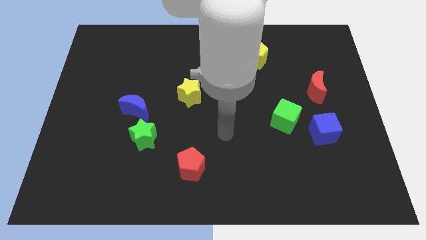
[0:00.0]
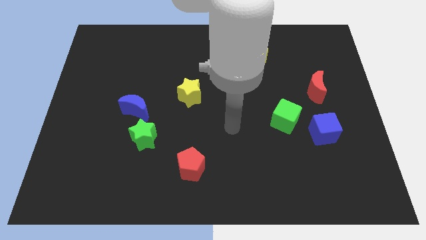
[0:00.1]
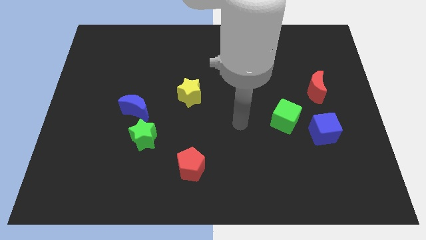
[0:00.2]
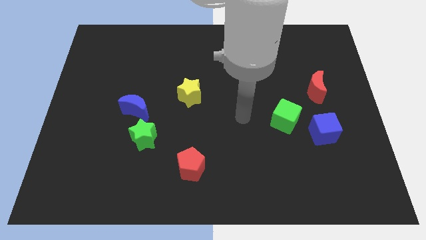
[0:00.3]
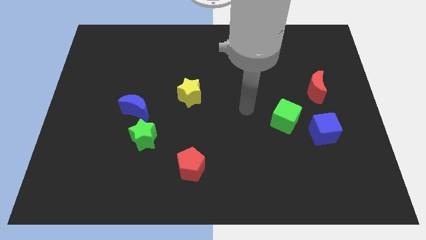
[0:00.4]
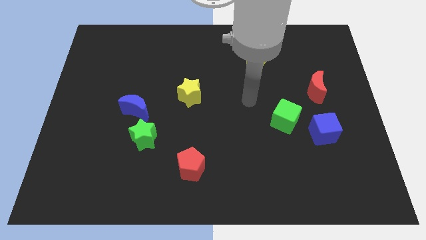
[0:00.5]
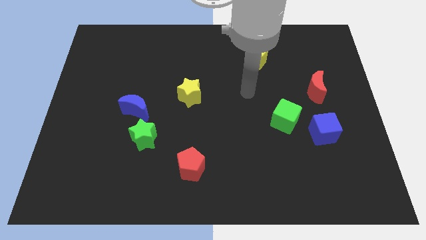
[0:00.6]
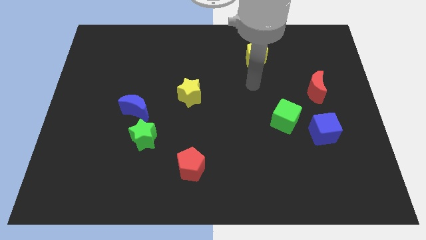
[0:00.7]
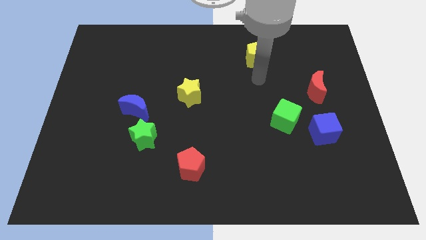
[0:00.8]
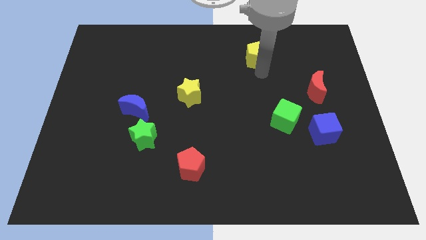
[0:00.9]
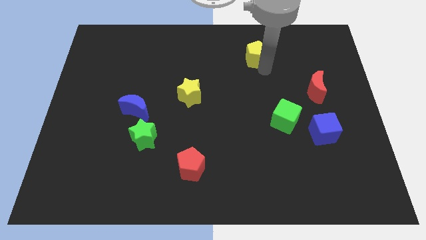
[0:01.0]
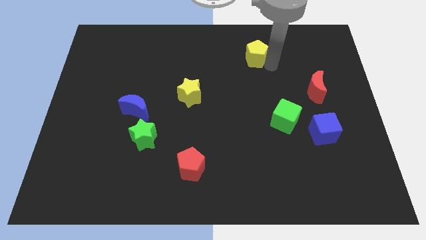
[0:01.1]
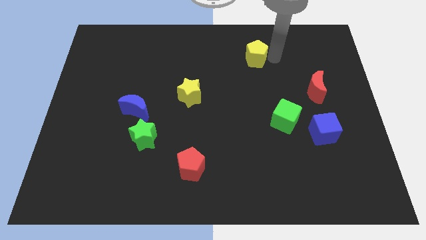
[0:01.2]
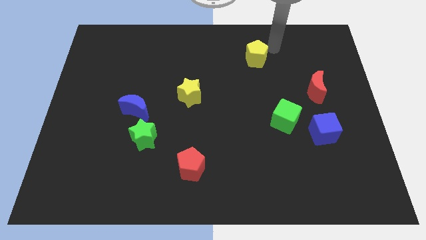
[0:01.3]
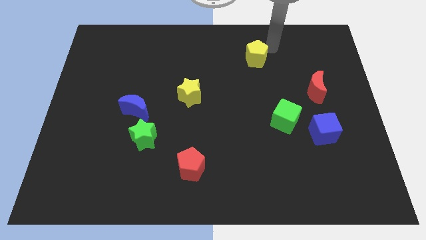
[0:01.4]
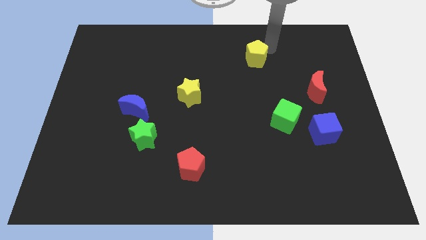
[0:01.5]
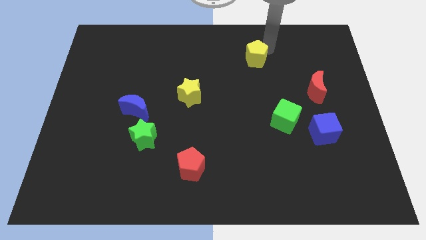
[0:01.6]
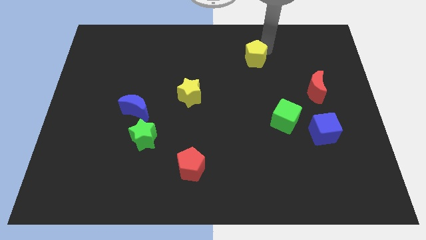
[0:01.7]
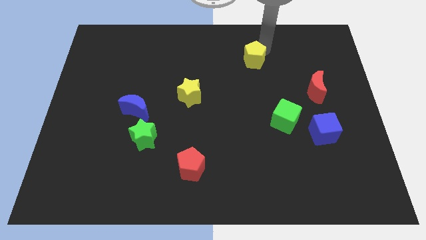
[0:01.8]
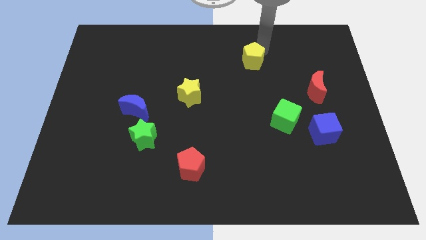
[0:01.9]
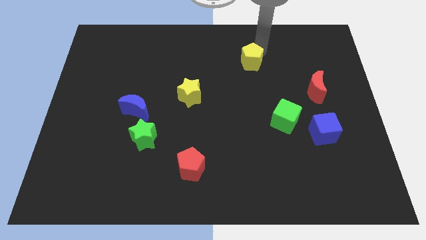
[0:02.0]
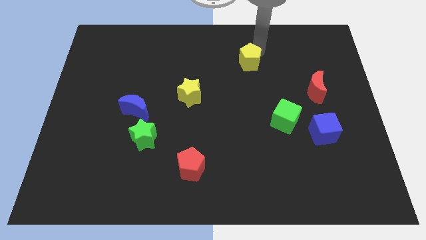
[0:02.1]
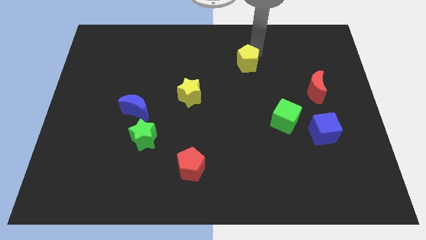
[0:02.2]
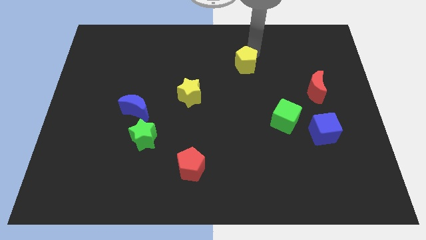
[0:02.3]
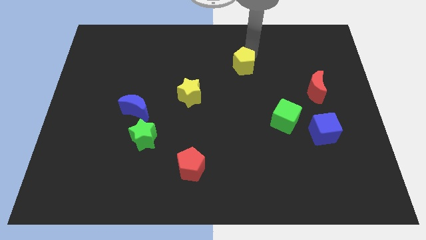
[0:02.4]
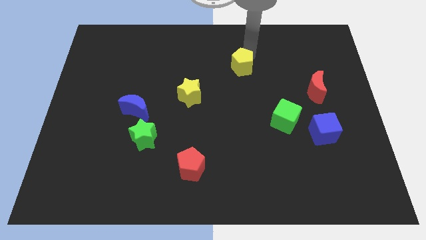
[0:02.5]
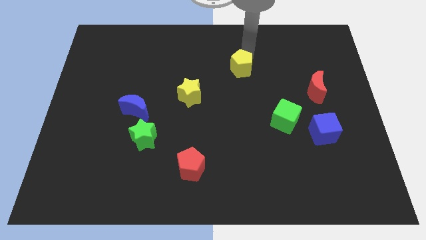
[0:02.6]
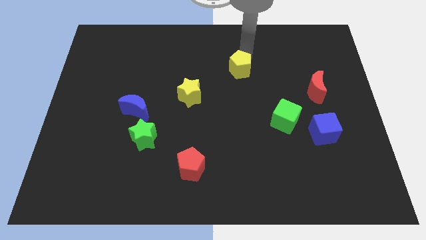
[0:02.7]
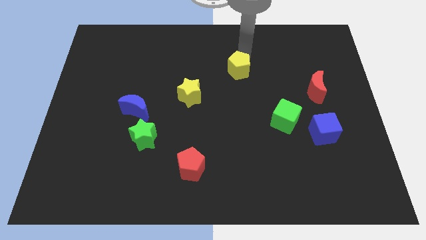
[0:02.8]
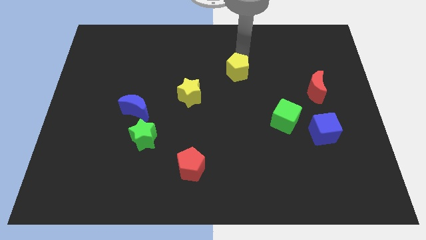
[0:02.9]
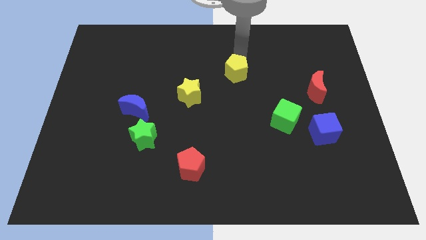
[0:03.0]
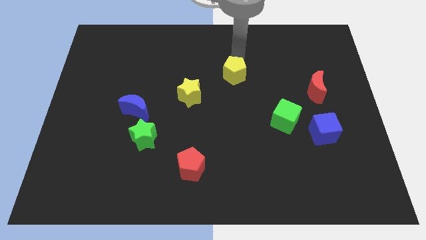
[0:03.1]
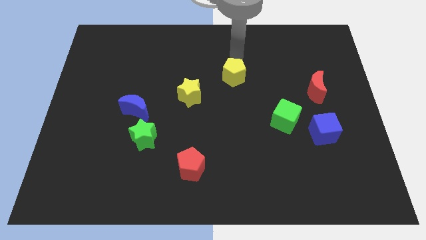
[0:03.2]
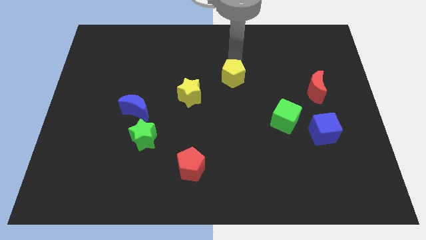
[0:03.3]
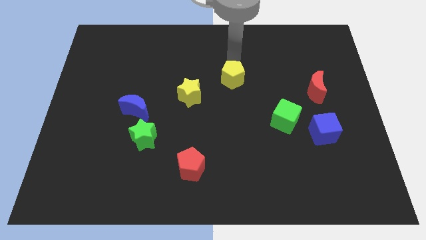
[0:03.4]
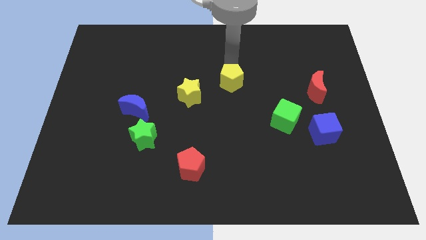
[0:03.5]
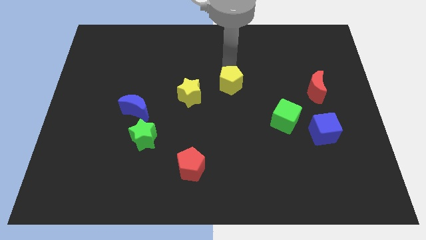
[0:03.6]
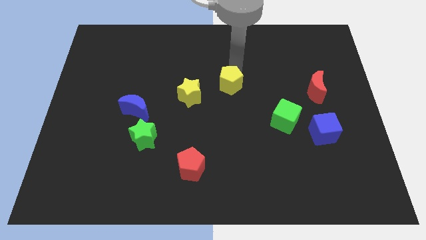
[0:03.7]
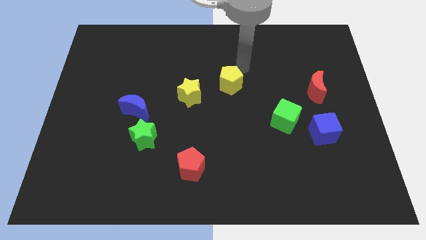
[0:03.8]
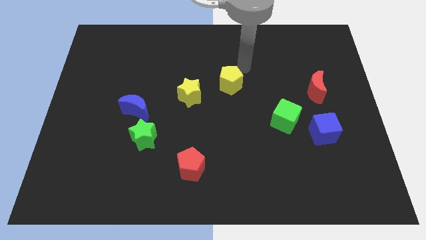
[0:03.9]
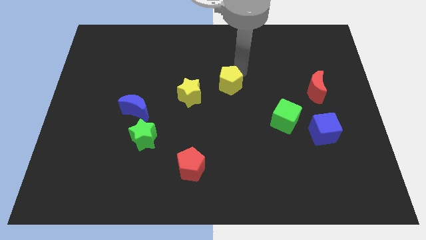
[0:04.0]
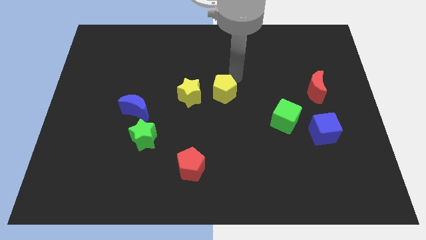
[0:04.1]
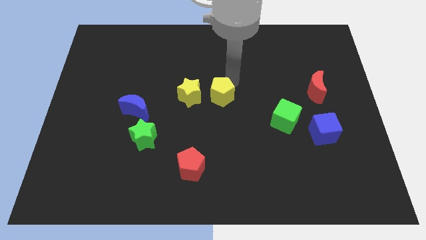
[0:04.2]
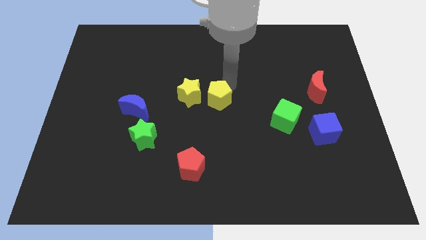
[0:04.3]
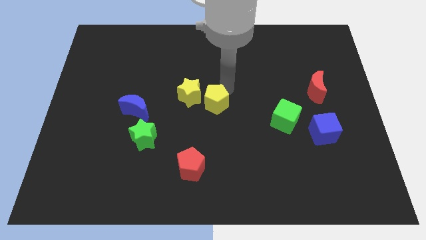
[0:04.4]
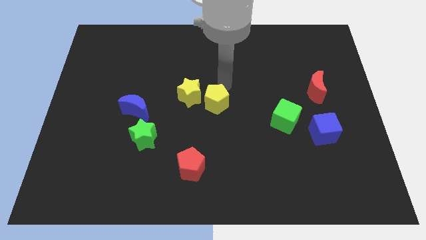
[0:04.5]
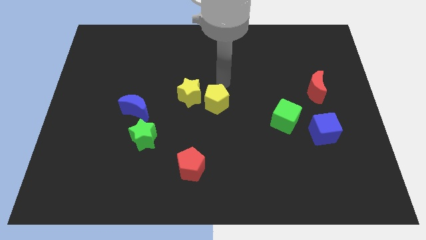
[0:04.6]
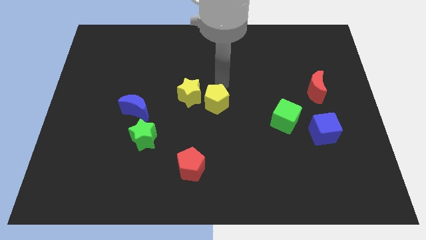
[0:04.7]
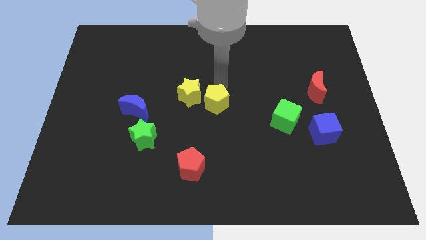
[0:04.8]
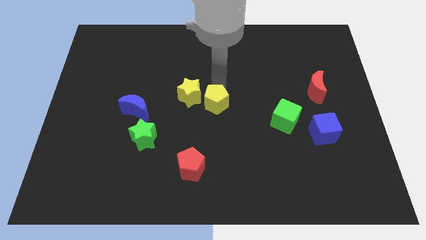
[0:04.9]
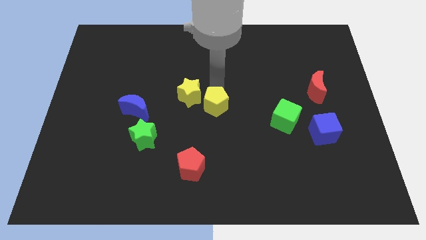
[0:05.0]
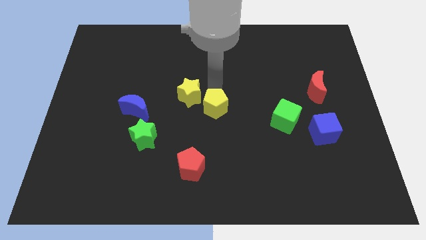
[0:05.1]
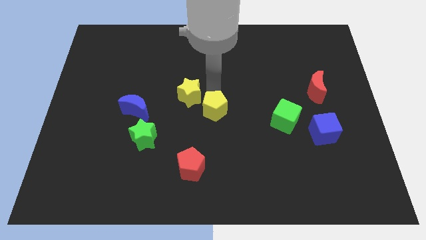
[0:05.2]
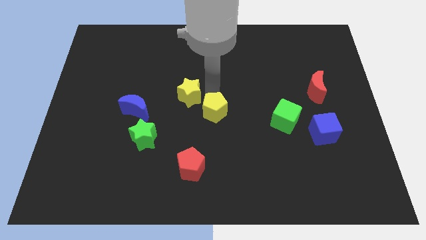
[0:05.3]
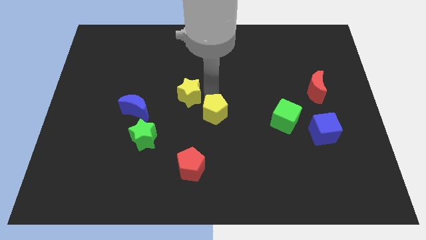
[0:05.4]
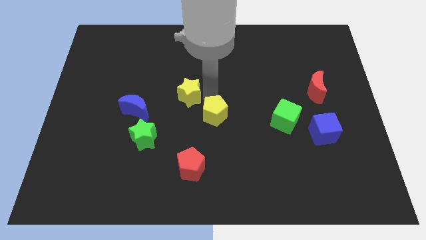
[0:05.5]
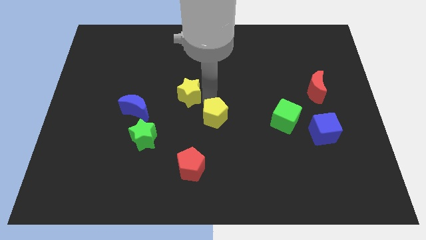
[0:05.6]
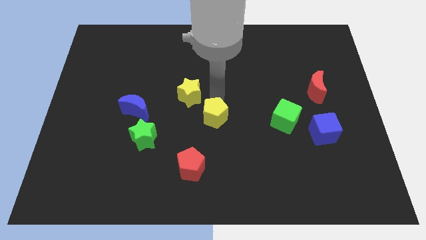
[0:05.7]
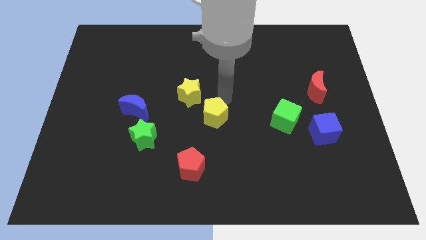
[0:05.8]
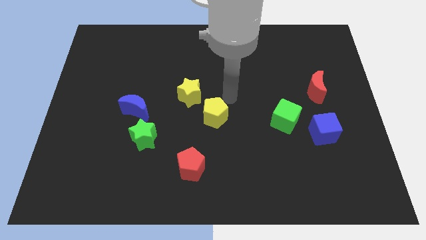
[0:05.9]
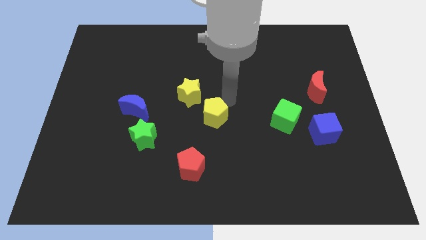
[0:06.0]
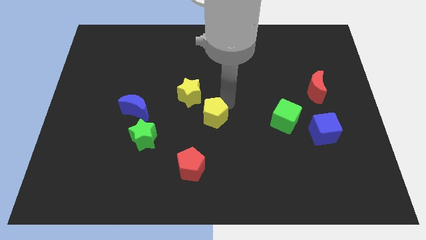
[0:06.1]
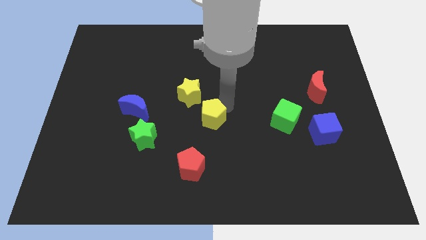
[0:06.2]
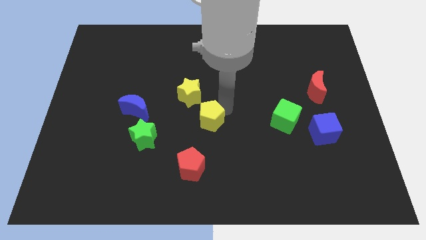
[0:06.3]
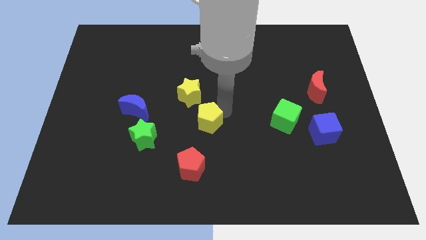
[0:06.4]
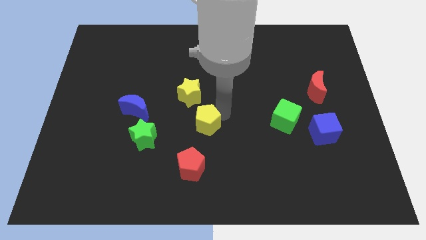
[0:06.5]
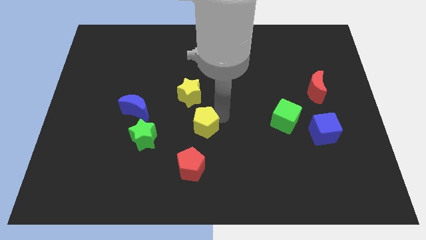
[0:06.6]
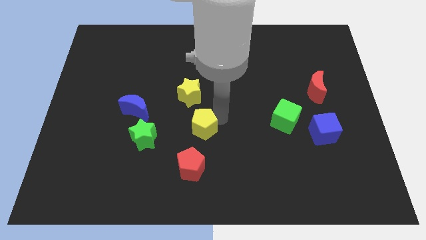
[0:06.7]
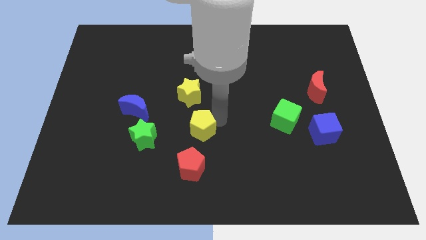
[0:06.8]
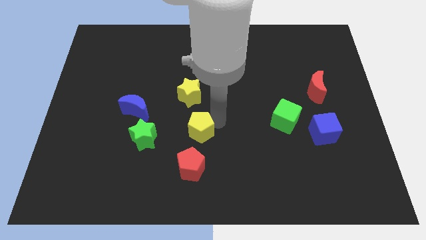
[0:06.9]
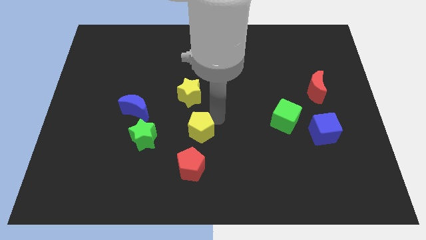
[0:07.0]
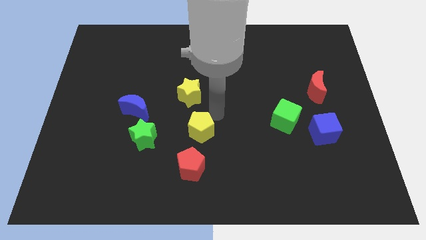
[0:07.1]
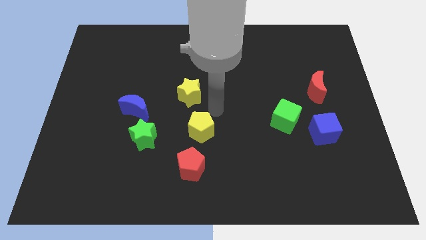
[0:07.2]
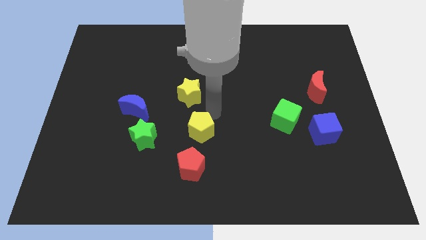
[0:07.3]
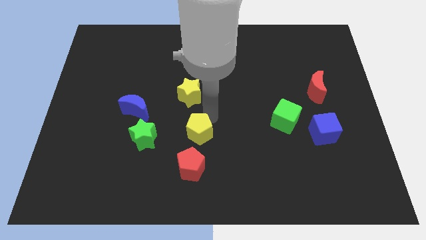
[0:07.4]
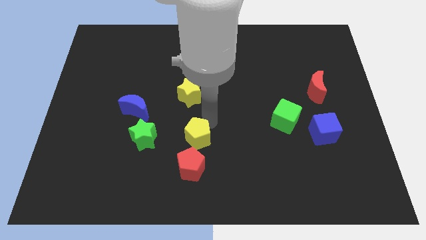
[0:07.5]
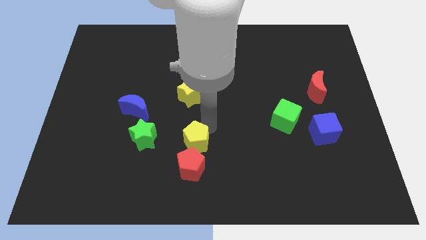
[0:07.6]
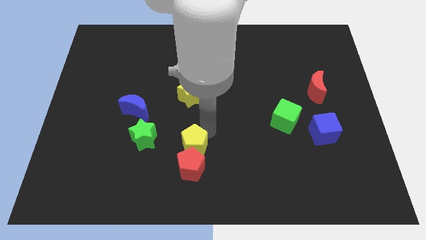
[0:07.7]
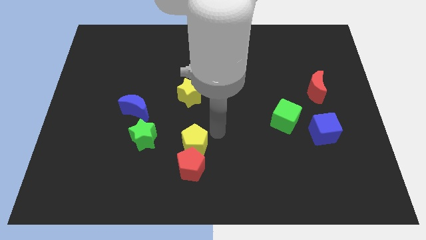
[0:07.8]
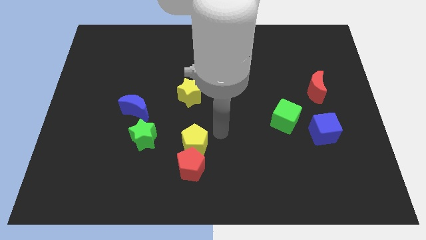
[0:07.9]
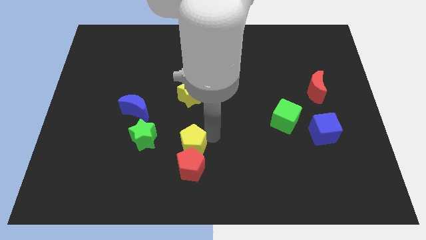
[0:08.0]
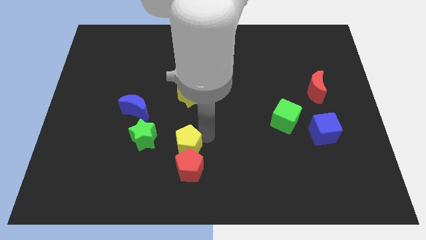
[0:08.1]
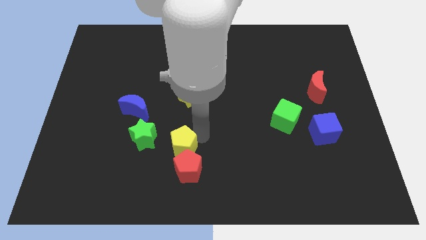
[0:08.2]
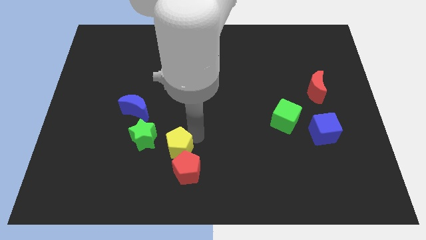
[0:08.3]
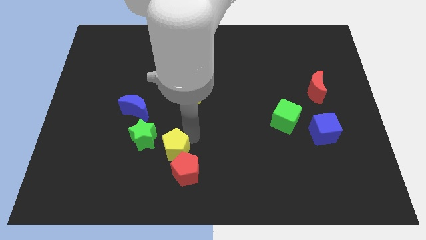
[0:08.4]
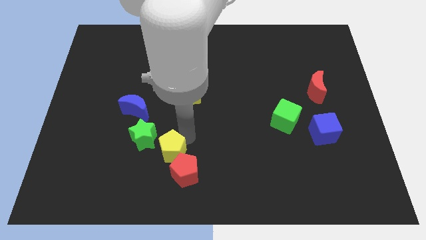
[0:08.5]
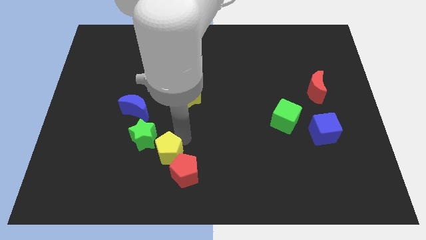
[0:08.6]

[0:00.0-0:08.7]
put the yellow pentagon left of the red pentagon
